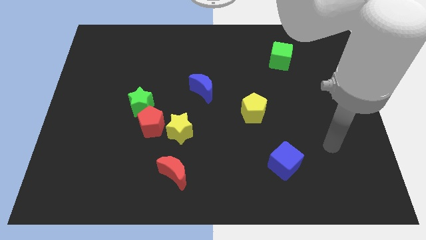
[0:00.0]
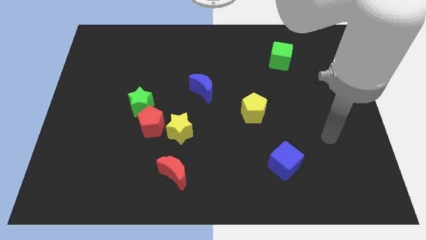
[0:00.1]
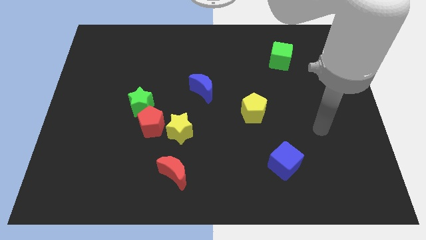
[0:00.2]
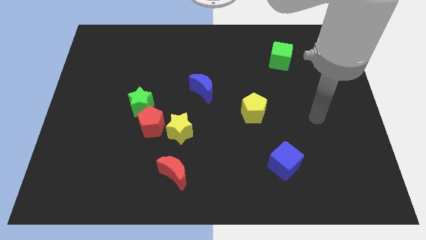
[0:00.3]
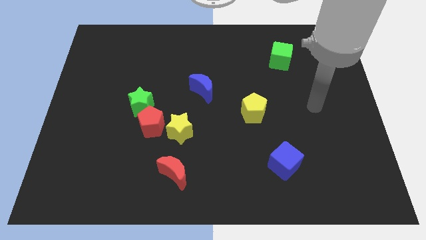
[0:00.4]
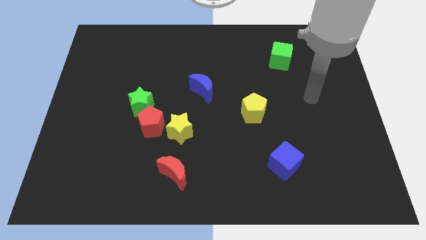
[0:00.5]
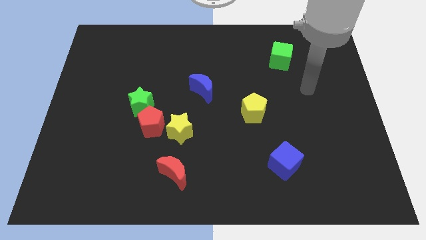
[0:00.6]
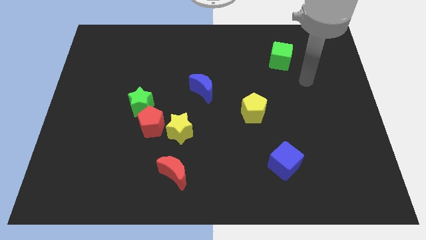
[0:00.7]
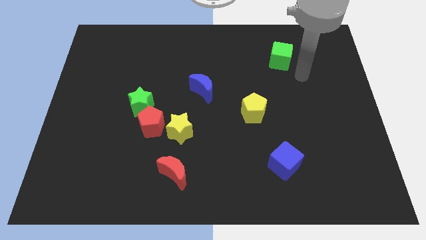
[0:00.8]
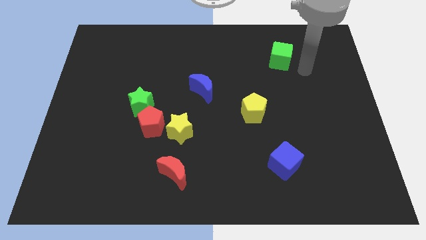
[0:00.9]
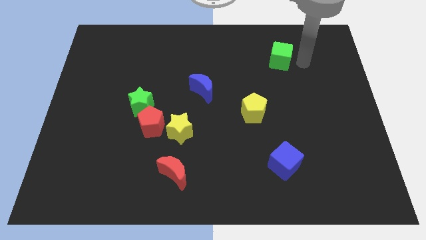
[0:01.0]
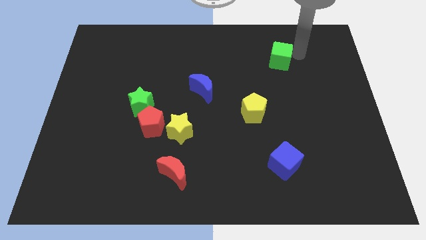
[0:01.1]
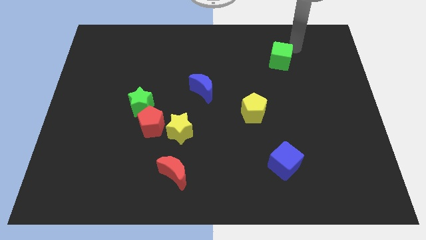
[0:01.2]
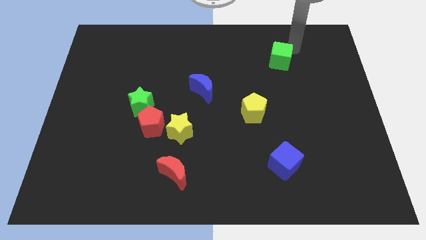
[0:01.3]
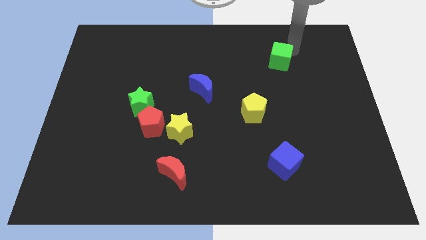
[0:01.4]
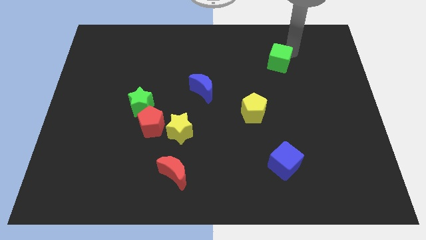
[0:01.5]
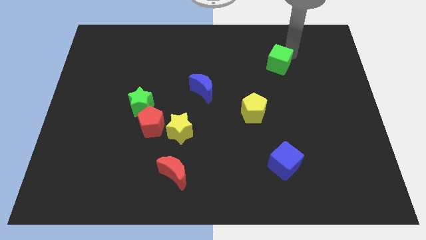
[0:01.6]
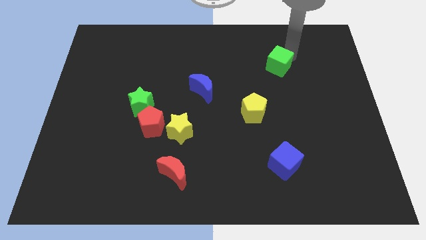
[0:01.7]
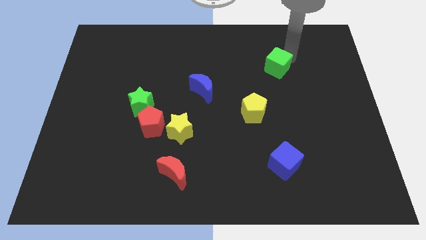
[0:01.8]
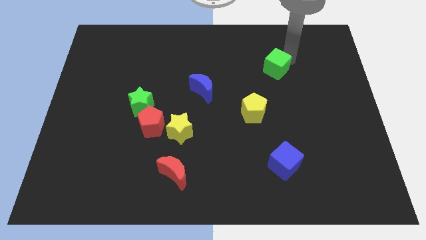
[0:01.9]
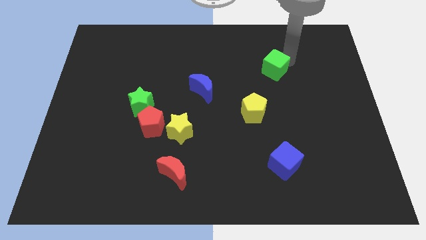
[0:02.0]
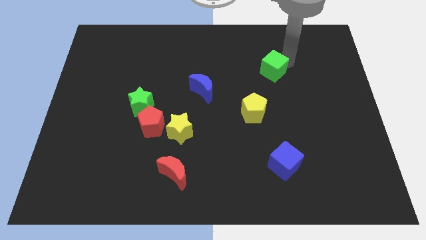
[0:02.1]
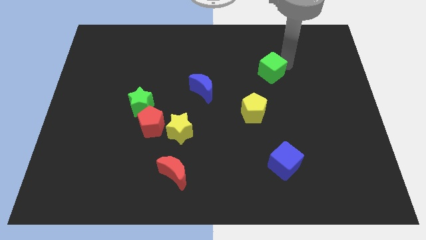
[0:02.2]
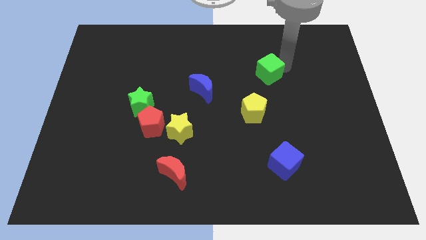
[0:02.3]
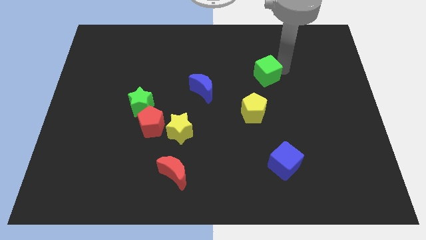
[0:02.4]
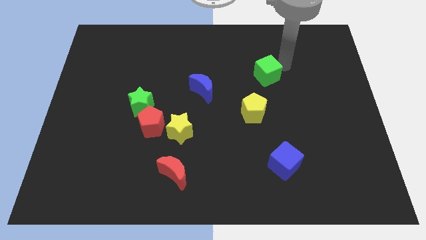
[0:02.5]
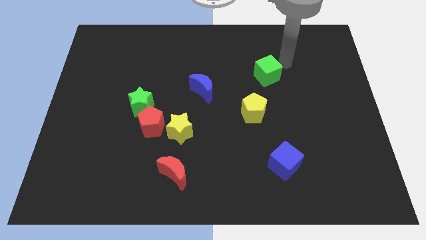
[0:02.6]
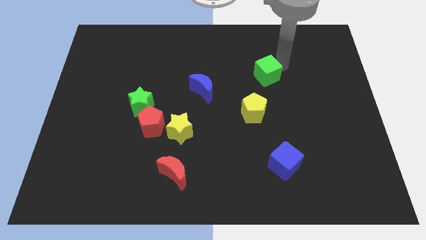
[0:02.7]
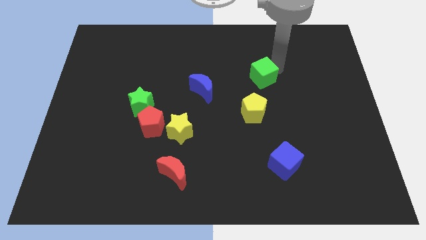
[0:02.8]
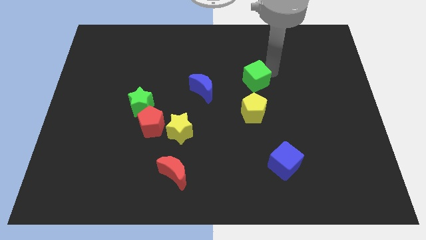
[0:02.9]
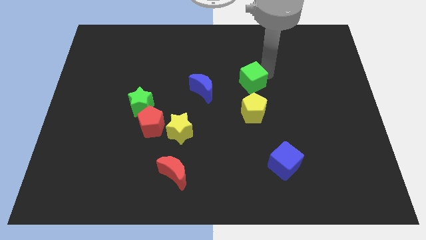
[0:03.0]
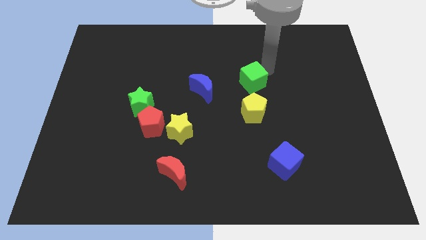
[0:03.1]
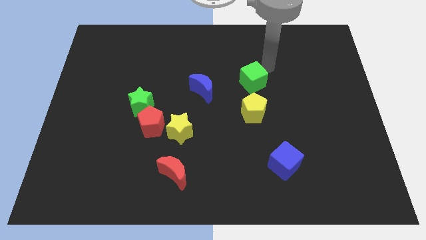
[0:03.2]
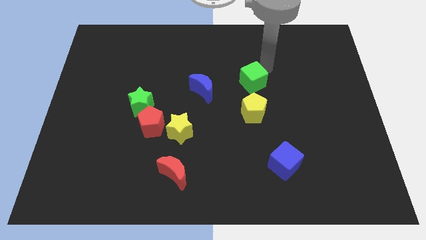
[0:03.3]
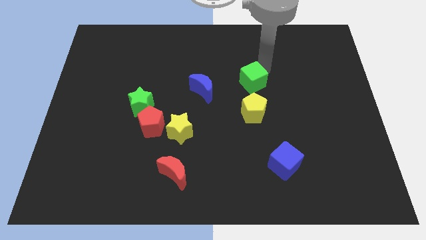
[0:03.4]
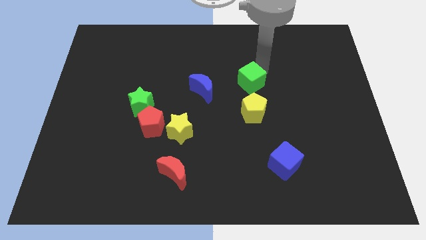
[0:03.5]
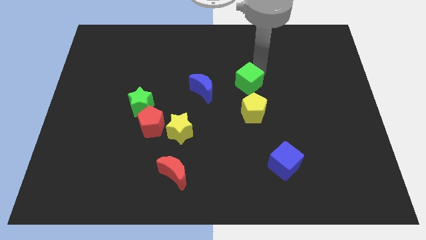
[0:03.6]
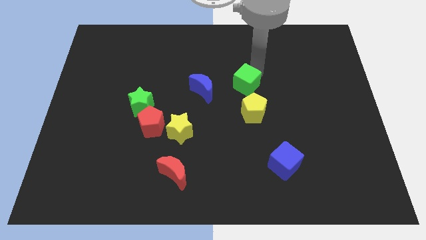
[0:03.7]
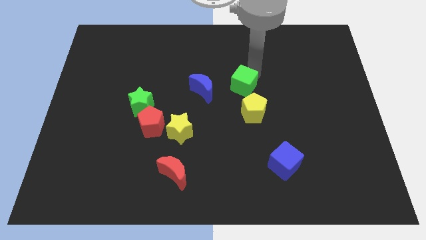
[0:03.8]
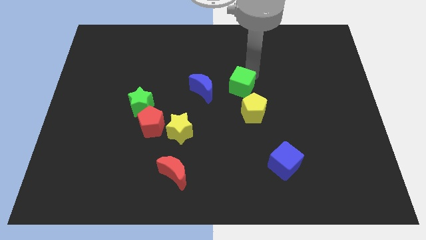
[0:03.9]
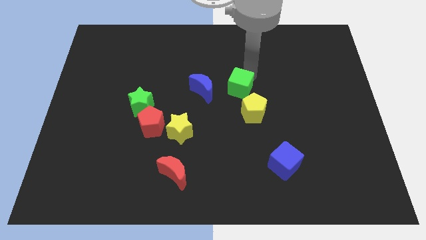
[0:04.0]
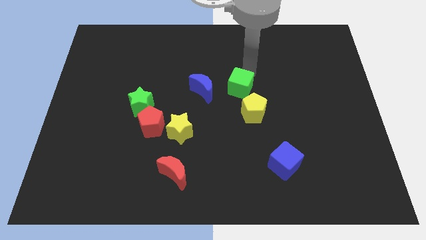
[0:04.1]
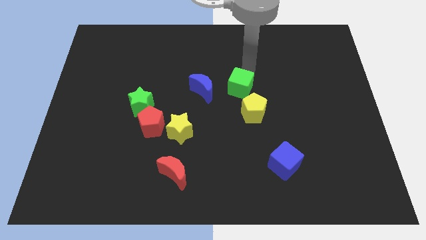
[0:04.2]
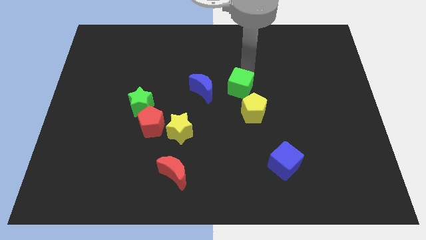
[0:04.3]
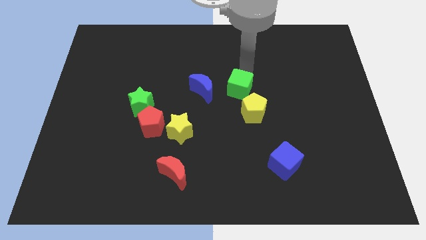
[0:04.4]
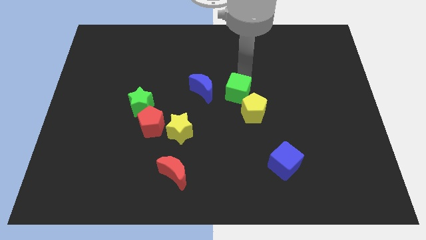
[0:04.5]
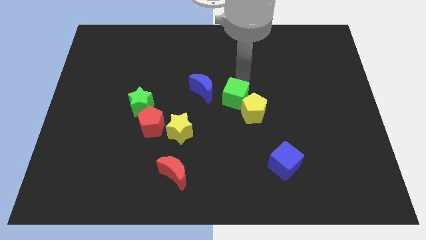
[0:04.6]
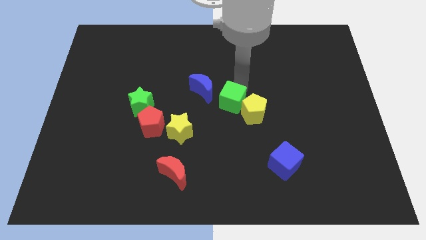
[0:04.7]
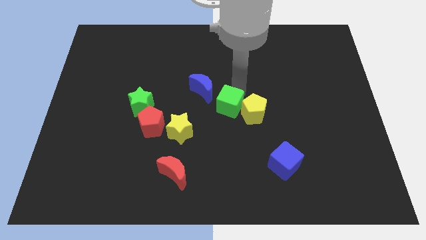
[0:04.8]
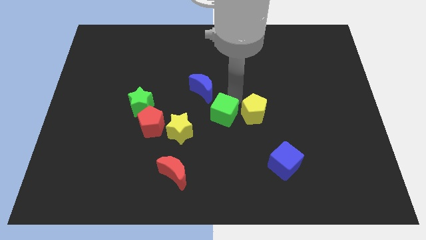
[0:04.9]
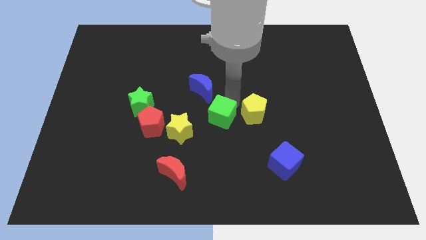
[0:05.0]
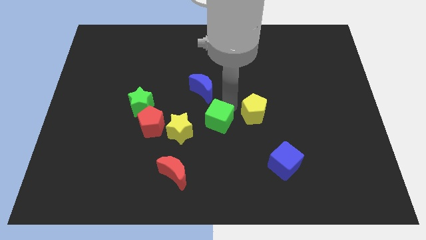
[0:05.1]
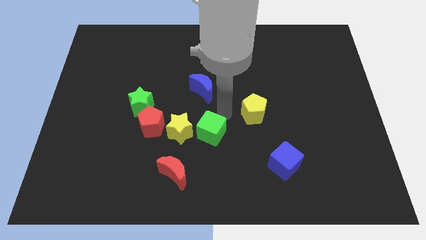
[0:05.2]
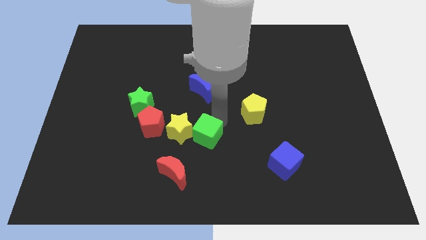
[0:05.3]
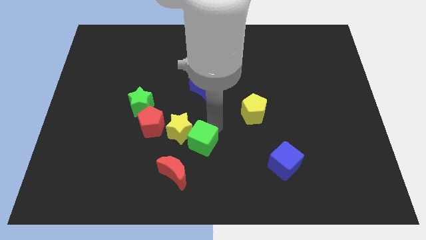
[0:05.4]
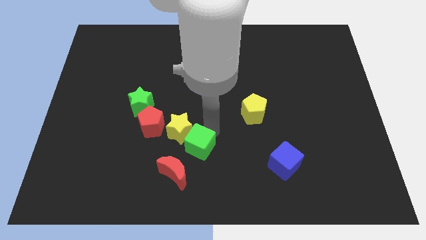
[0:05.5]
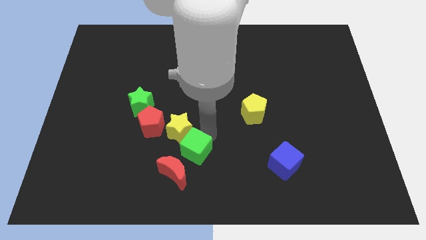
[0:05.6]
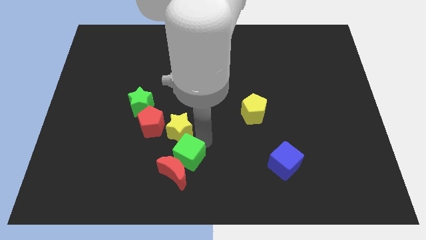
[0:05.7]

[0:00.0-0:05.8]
move the green cube close to the red moon

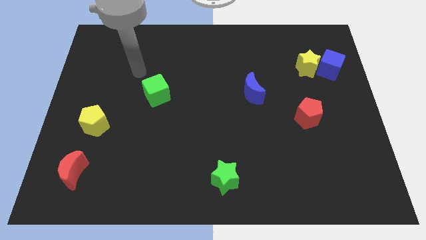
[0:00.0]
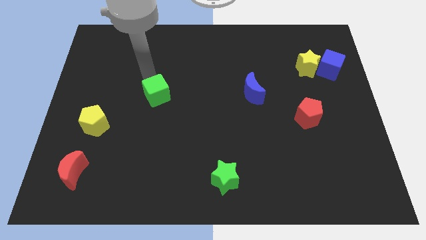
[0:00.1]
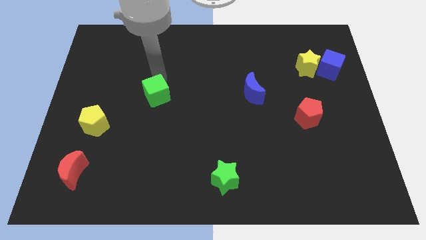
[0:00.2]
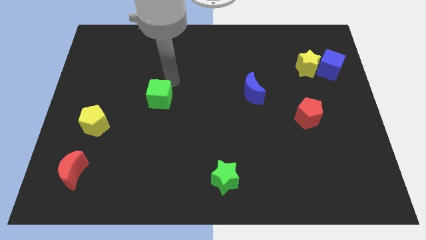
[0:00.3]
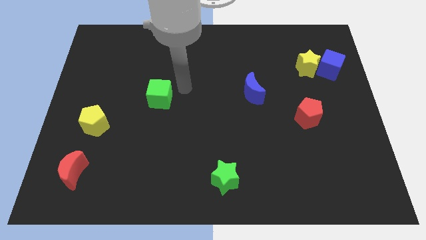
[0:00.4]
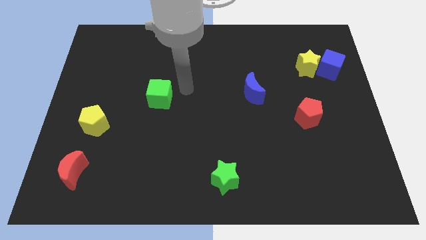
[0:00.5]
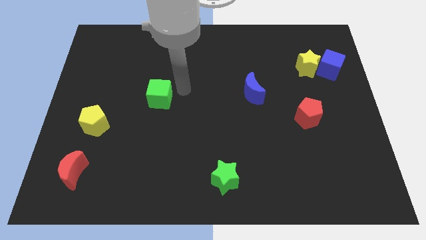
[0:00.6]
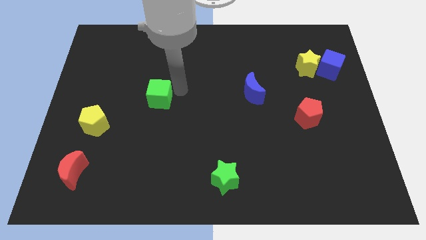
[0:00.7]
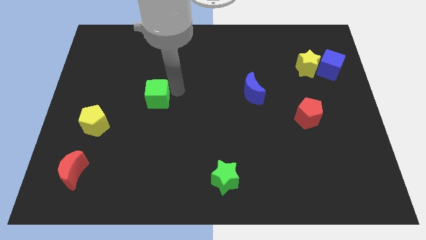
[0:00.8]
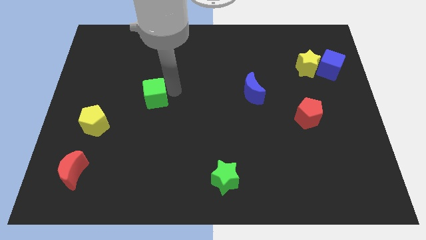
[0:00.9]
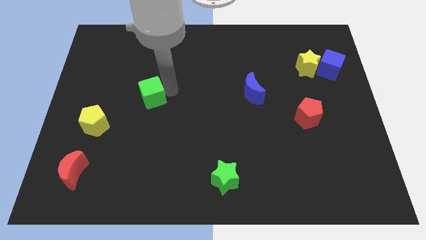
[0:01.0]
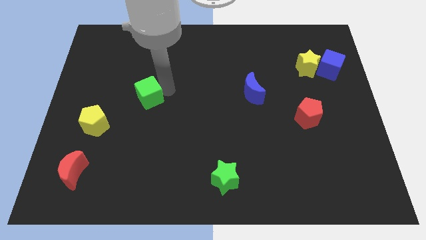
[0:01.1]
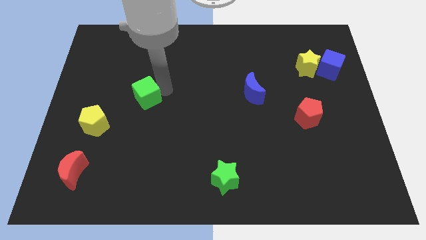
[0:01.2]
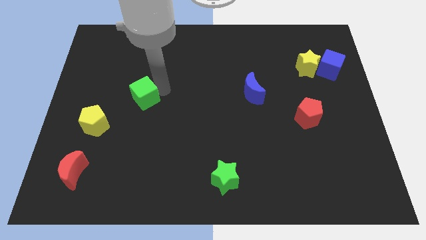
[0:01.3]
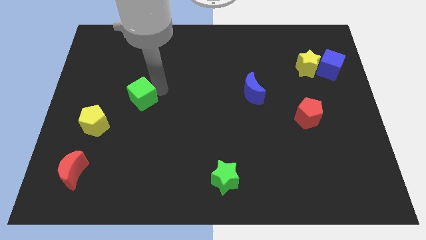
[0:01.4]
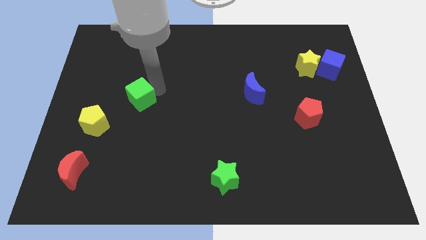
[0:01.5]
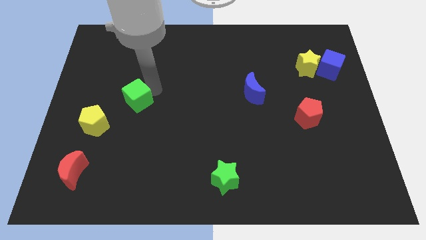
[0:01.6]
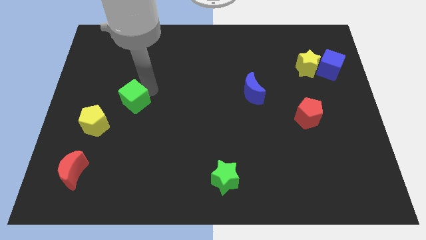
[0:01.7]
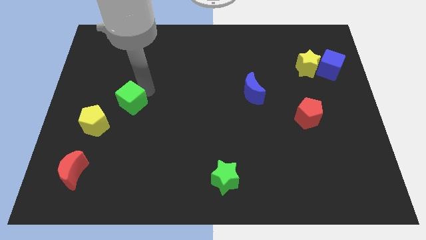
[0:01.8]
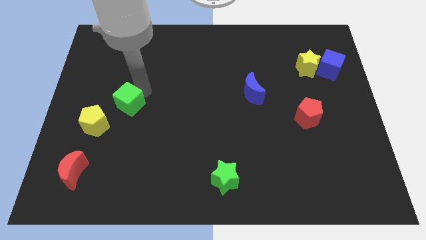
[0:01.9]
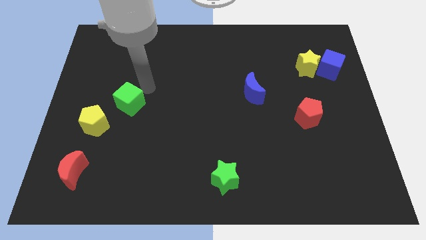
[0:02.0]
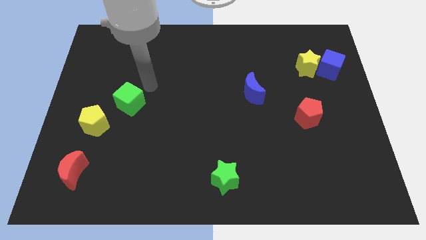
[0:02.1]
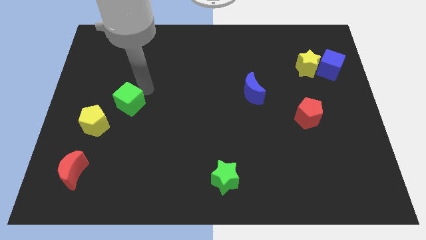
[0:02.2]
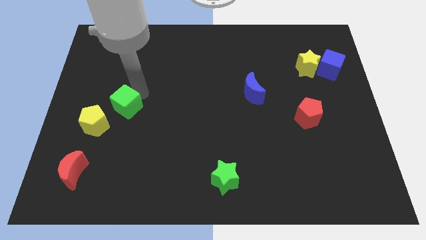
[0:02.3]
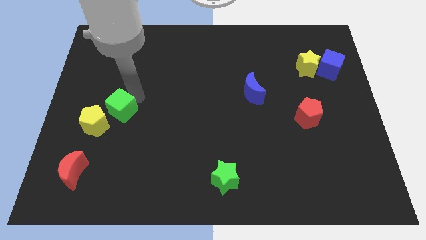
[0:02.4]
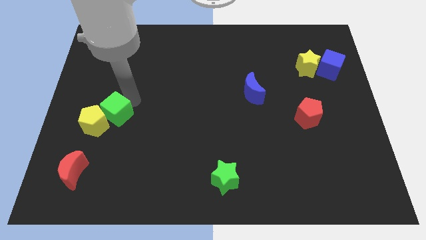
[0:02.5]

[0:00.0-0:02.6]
slide the green cube towards the yellow pentagon
